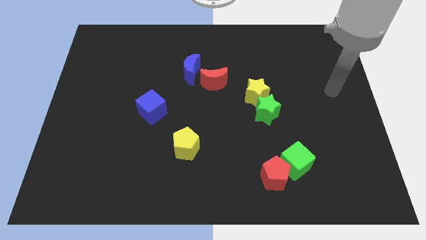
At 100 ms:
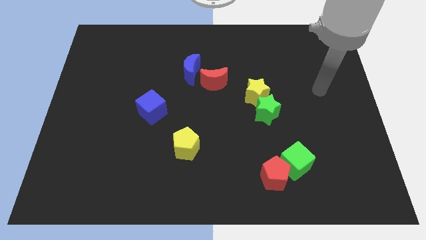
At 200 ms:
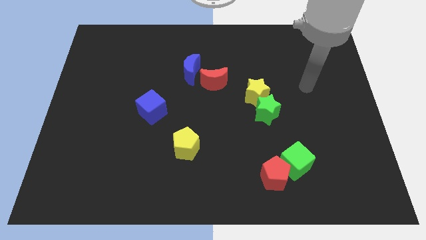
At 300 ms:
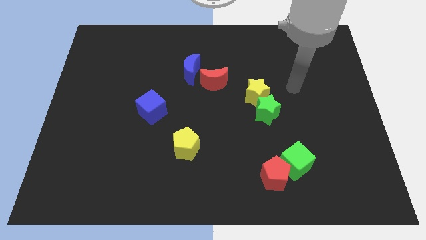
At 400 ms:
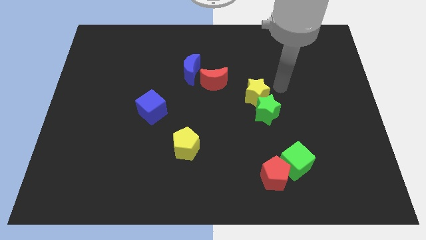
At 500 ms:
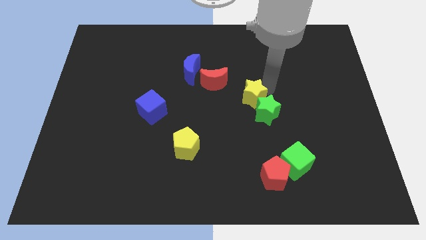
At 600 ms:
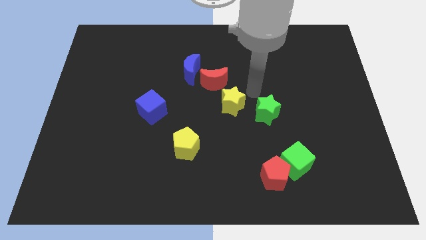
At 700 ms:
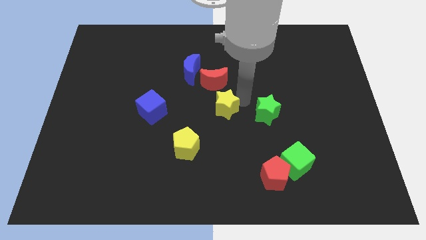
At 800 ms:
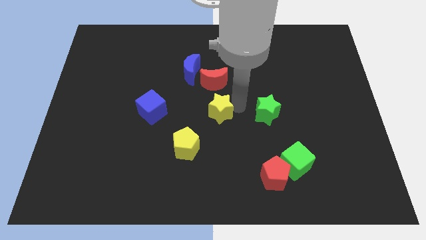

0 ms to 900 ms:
move the green star away from the yellow star

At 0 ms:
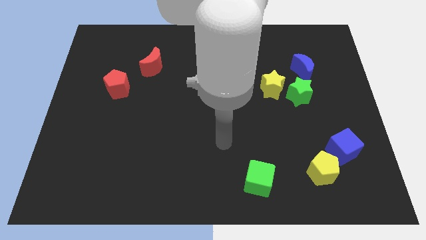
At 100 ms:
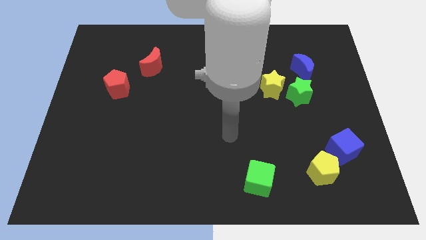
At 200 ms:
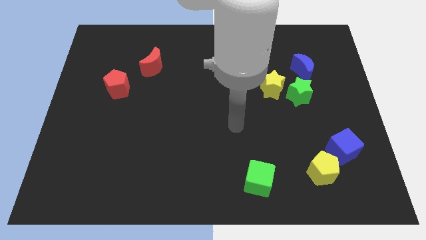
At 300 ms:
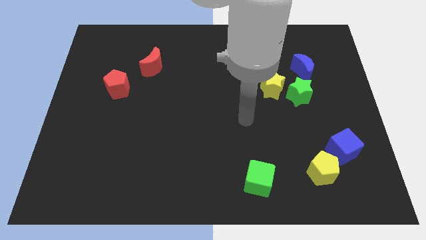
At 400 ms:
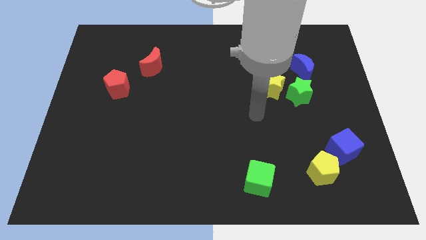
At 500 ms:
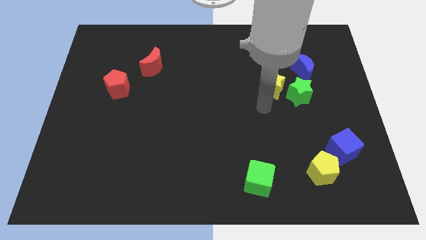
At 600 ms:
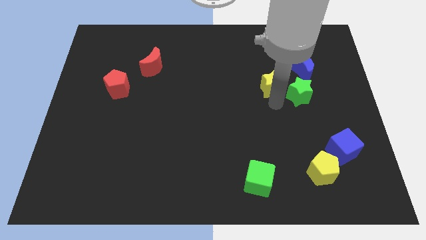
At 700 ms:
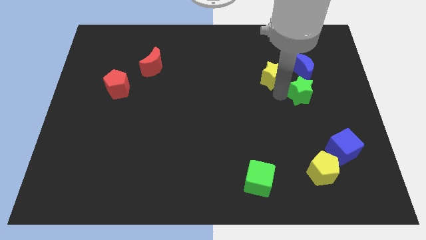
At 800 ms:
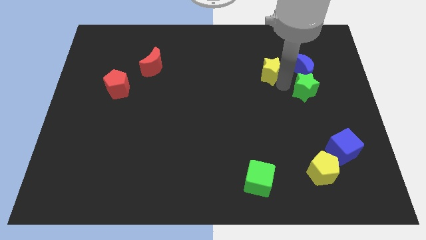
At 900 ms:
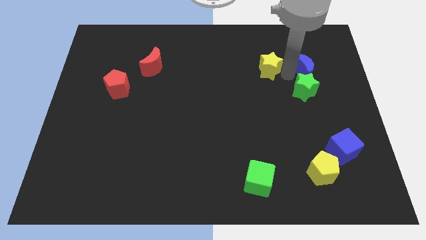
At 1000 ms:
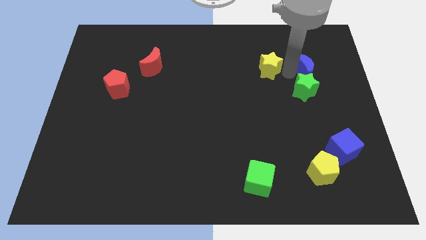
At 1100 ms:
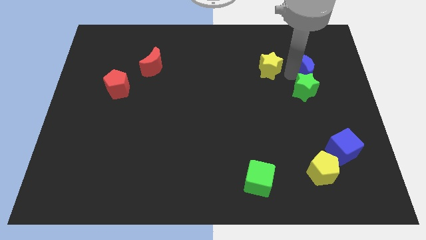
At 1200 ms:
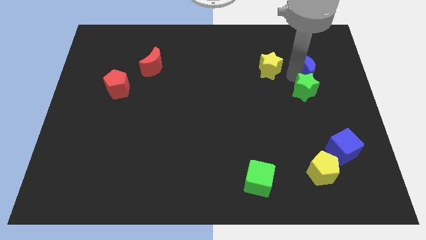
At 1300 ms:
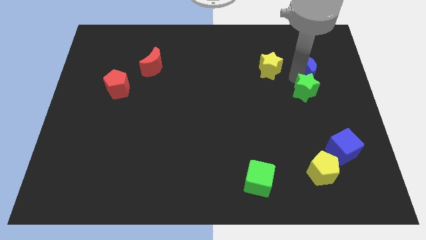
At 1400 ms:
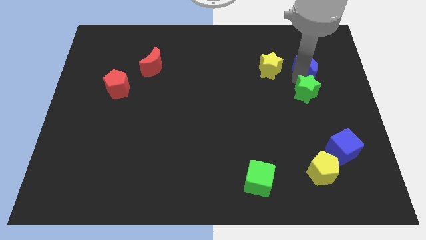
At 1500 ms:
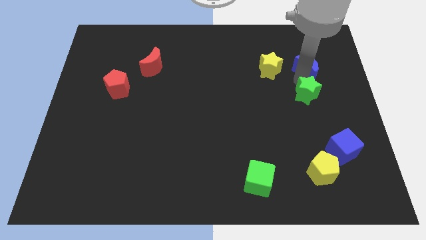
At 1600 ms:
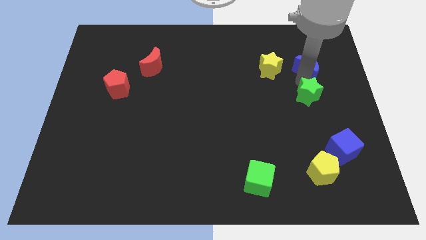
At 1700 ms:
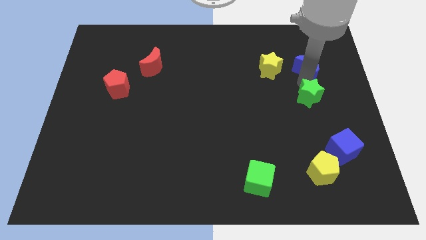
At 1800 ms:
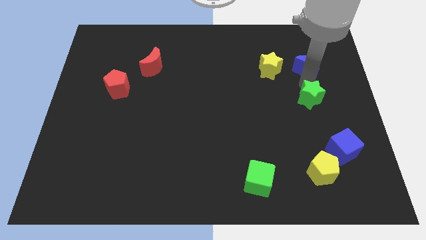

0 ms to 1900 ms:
separate the green star from the yellow star and blue moon

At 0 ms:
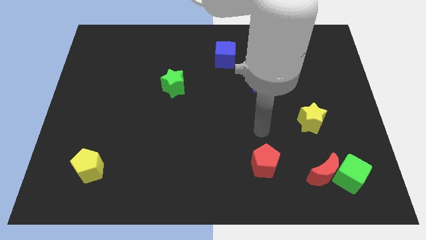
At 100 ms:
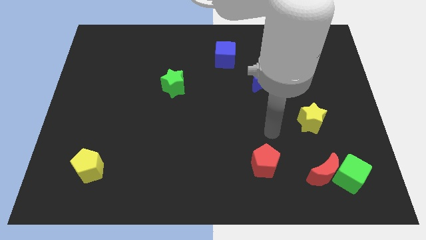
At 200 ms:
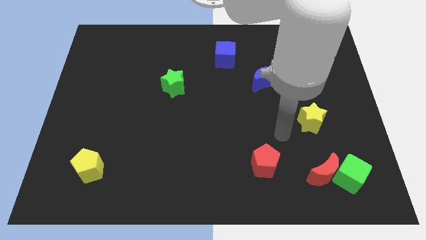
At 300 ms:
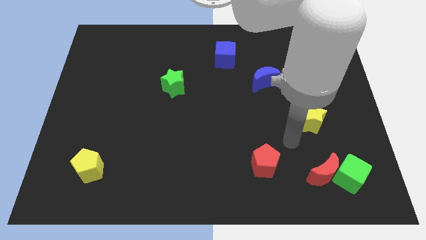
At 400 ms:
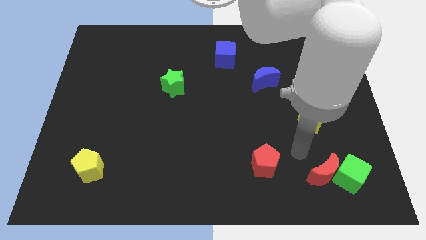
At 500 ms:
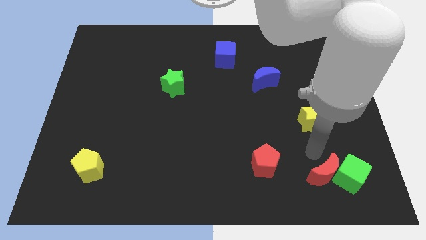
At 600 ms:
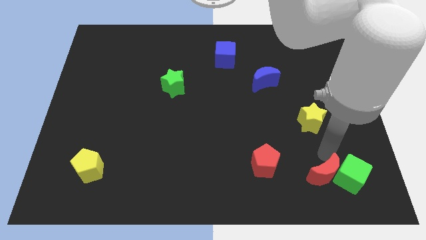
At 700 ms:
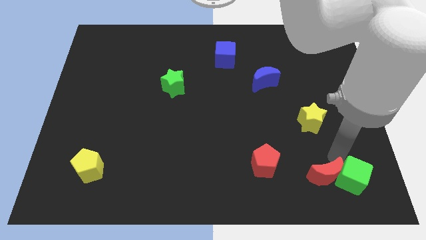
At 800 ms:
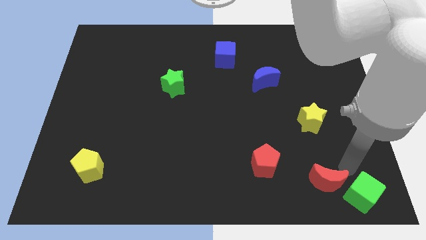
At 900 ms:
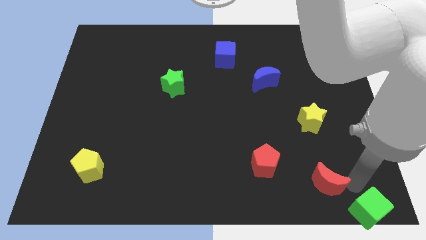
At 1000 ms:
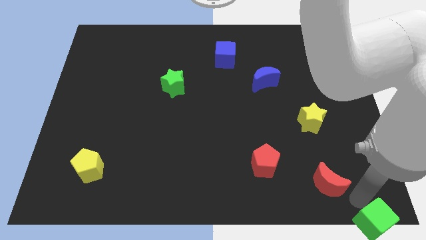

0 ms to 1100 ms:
move the red moon away from the green cube

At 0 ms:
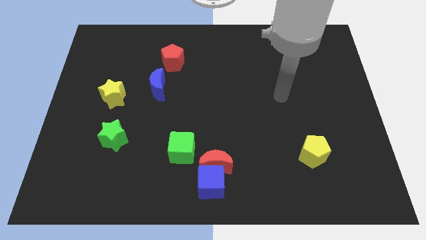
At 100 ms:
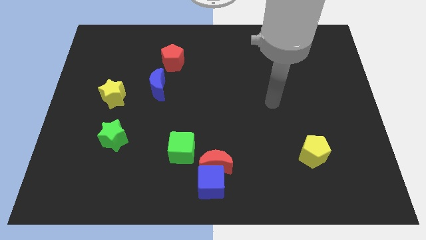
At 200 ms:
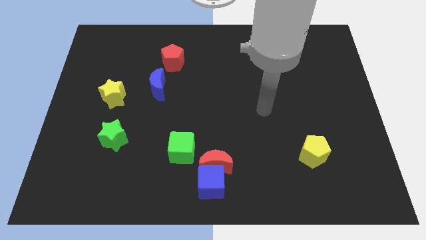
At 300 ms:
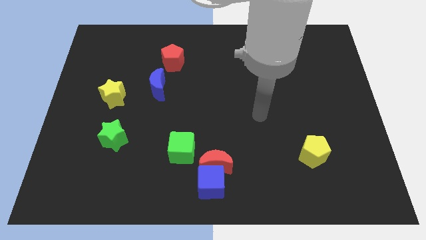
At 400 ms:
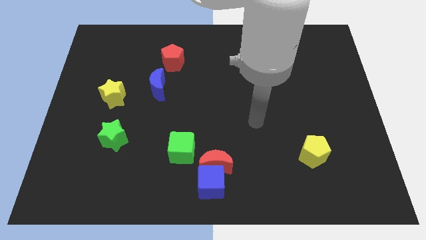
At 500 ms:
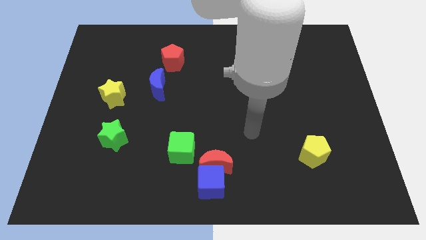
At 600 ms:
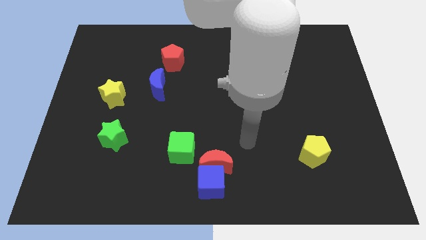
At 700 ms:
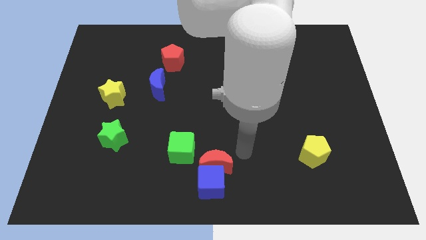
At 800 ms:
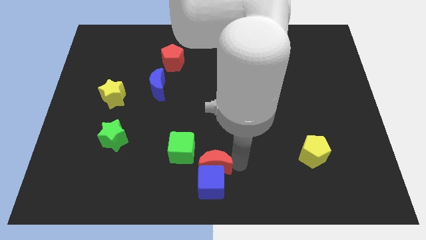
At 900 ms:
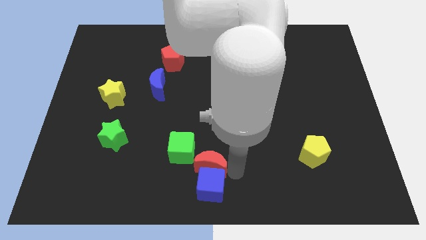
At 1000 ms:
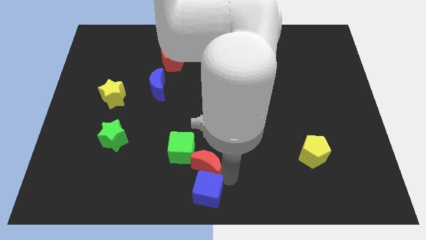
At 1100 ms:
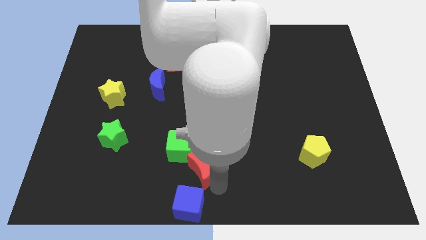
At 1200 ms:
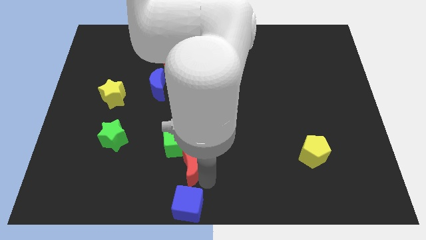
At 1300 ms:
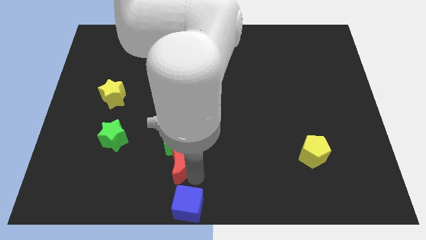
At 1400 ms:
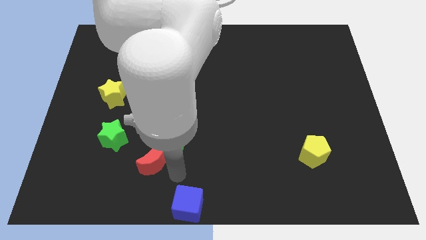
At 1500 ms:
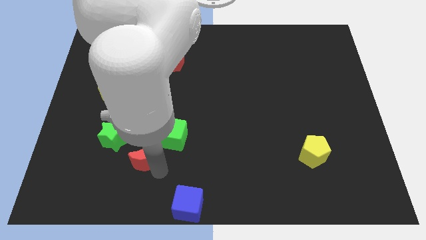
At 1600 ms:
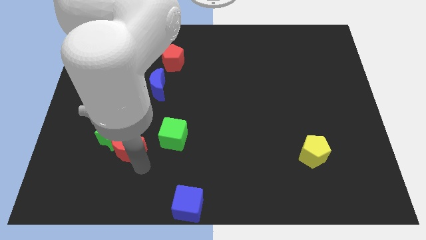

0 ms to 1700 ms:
pull the red moon apart from the blue cube and green cube

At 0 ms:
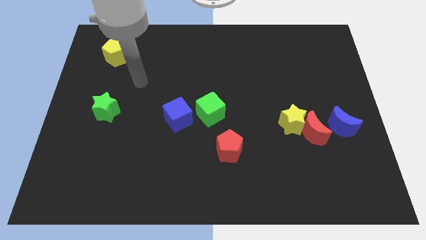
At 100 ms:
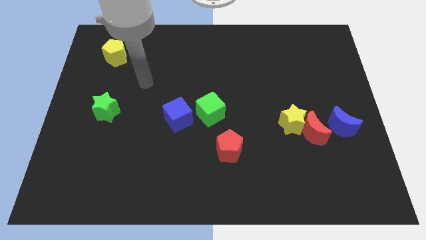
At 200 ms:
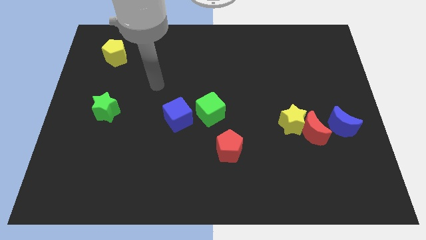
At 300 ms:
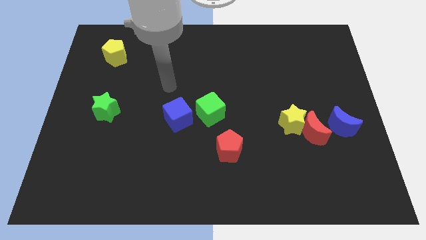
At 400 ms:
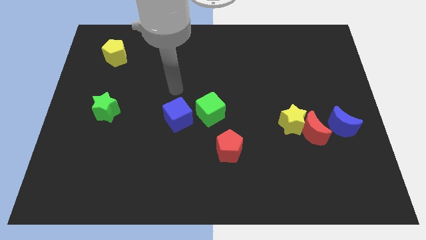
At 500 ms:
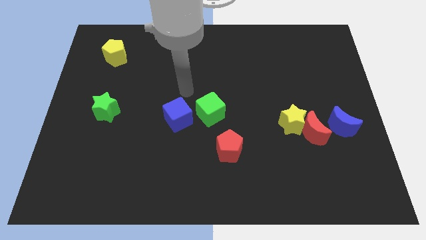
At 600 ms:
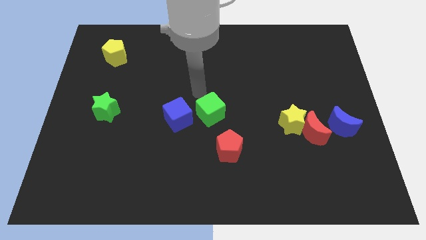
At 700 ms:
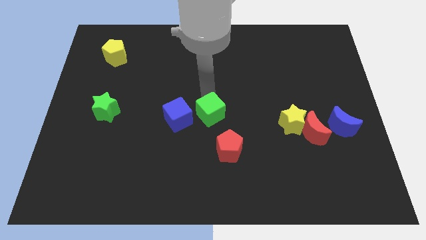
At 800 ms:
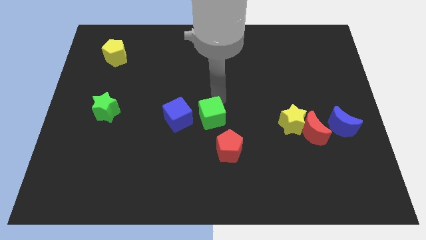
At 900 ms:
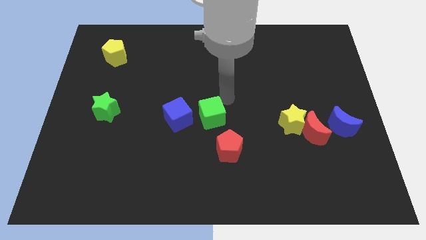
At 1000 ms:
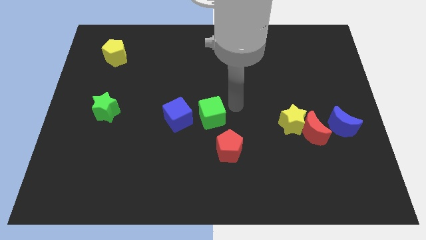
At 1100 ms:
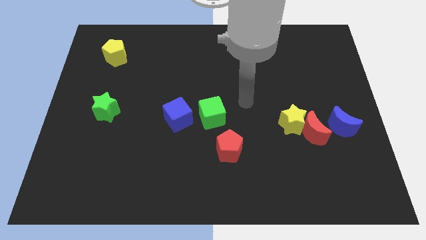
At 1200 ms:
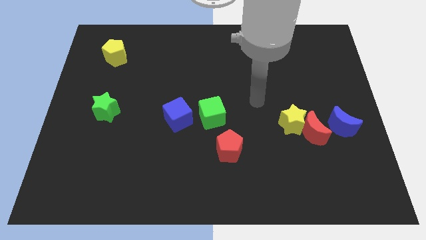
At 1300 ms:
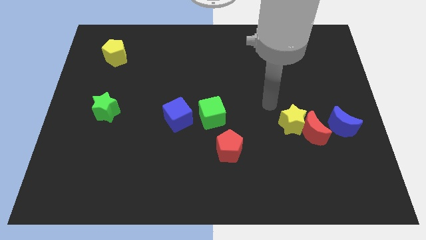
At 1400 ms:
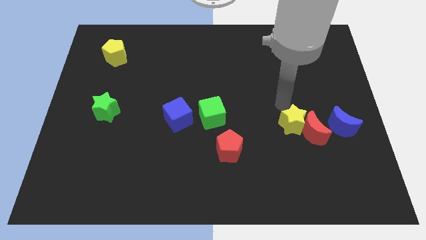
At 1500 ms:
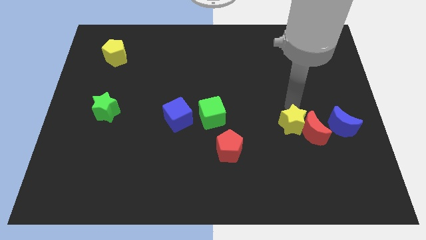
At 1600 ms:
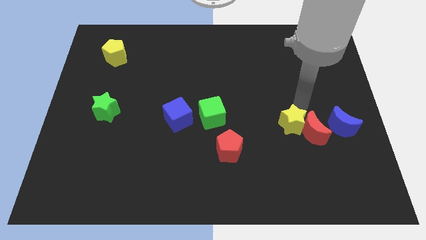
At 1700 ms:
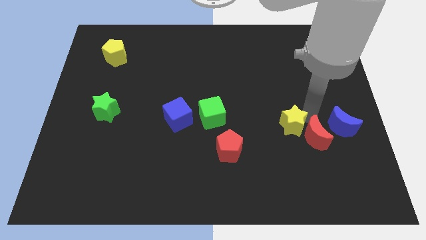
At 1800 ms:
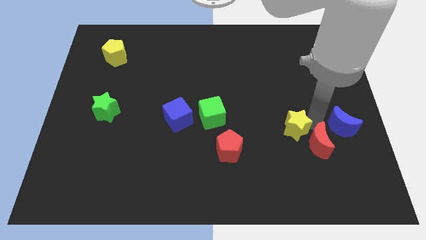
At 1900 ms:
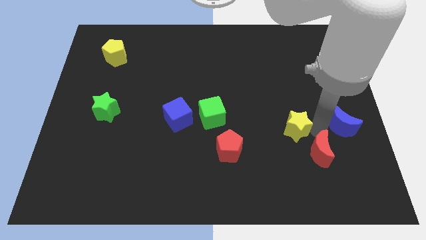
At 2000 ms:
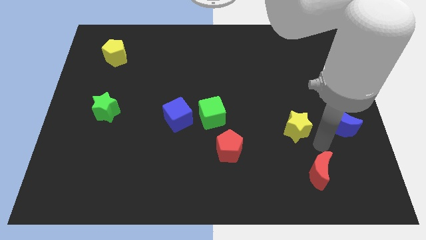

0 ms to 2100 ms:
move the yellow star away from the red moon

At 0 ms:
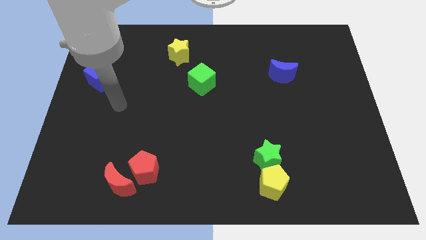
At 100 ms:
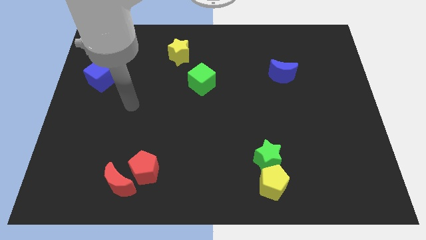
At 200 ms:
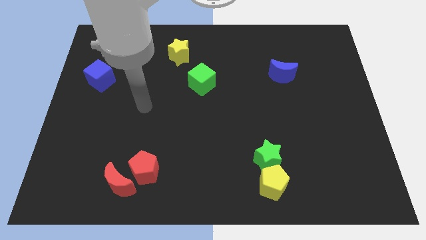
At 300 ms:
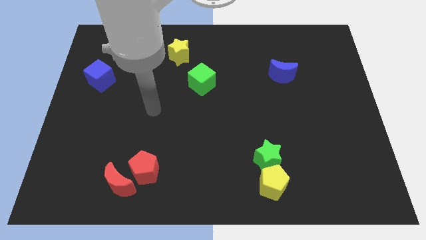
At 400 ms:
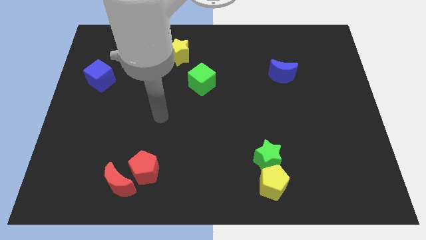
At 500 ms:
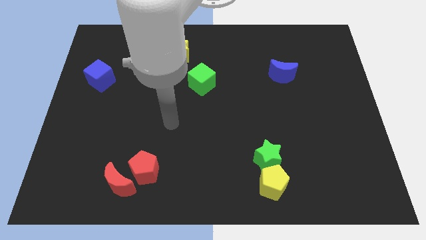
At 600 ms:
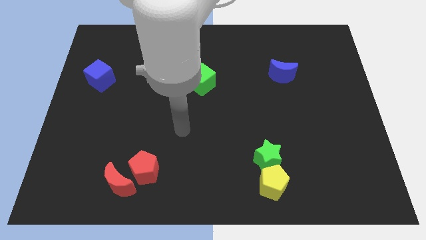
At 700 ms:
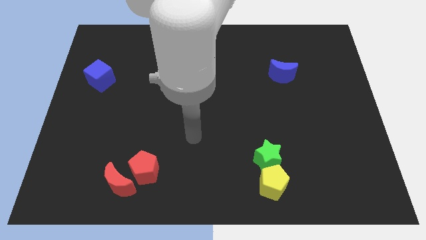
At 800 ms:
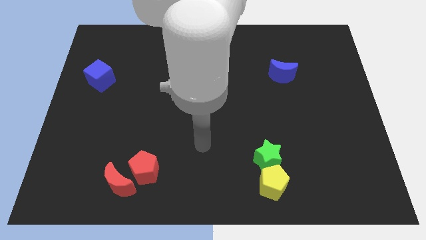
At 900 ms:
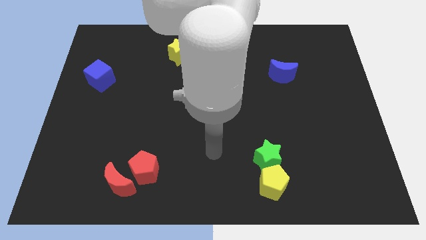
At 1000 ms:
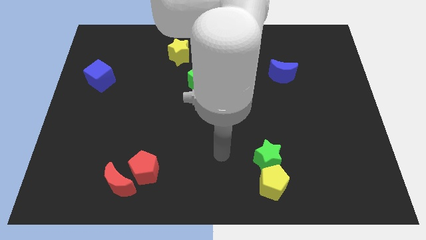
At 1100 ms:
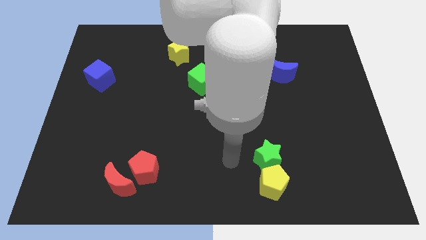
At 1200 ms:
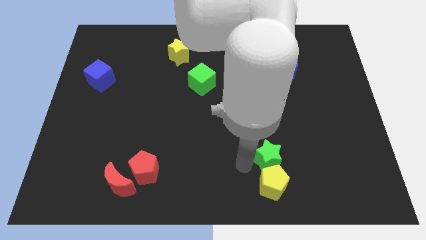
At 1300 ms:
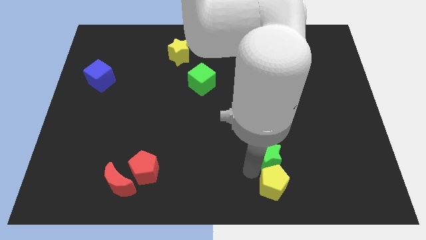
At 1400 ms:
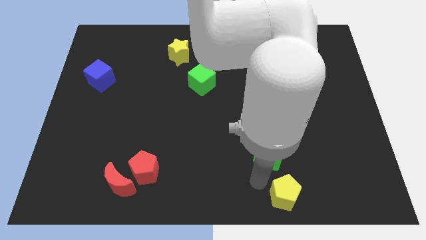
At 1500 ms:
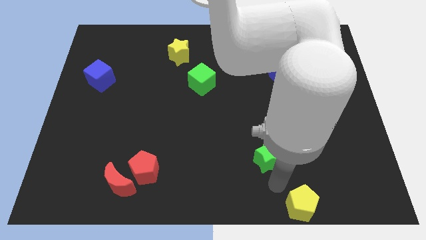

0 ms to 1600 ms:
move the green star away from the yellow pentagon
